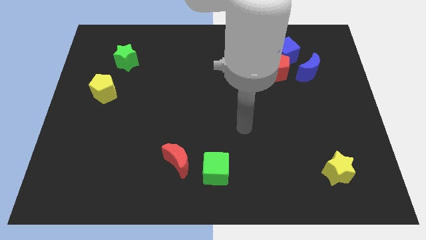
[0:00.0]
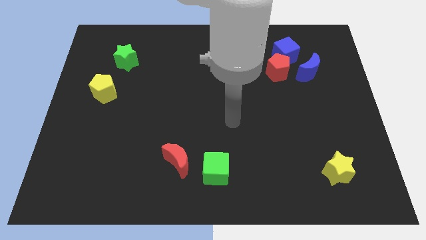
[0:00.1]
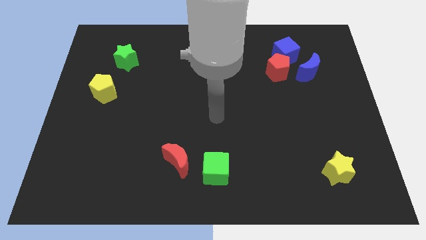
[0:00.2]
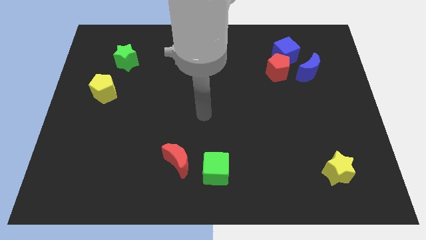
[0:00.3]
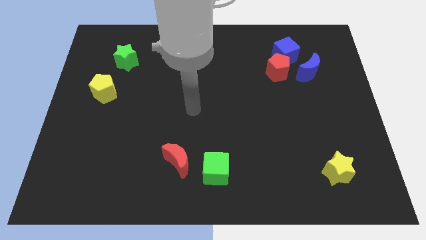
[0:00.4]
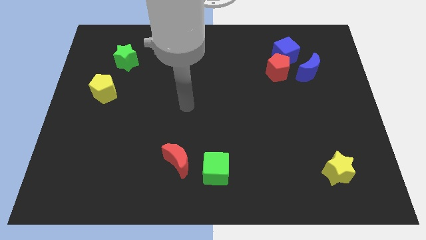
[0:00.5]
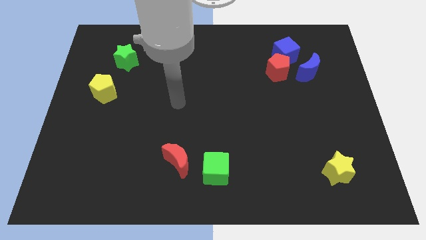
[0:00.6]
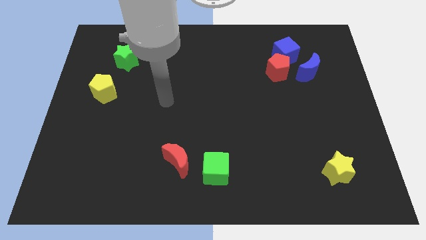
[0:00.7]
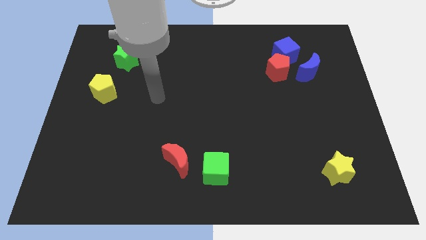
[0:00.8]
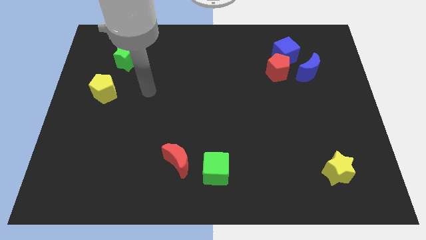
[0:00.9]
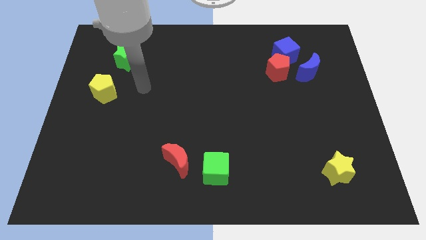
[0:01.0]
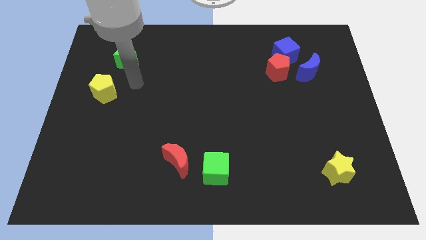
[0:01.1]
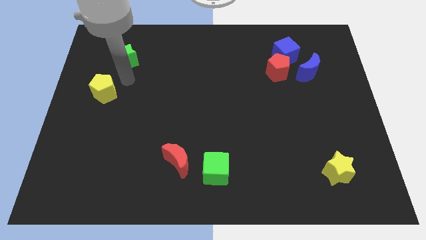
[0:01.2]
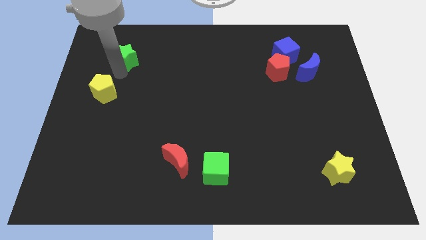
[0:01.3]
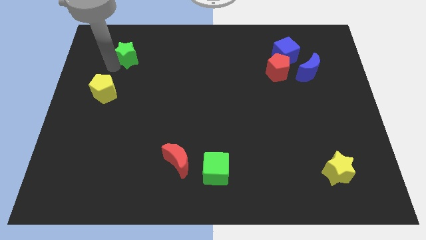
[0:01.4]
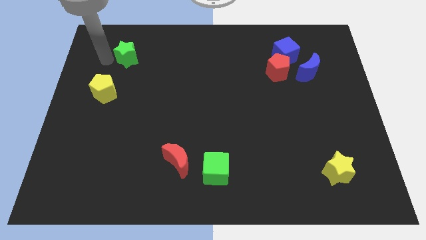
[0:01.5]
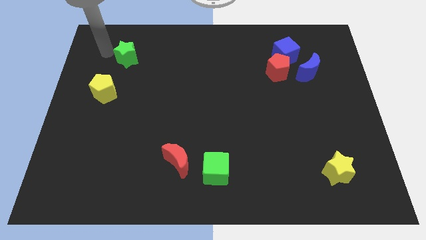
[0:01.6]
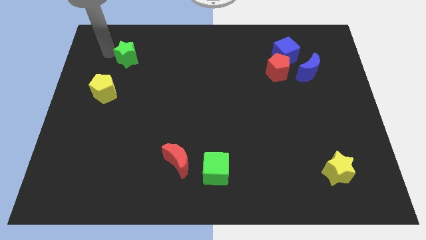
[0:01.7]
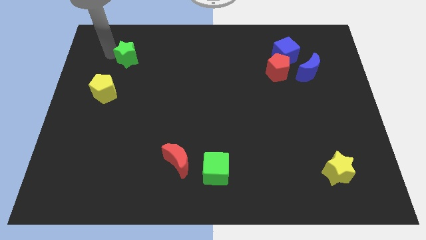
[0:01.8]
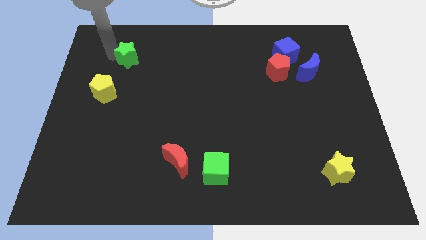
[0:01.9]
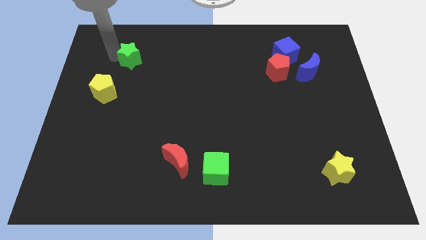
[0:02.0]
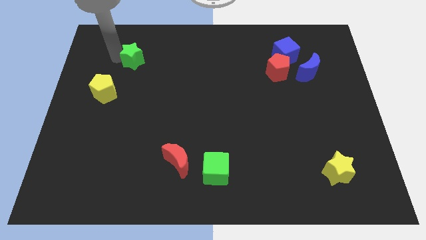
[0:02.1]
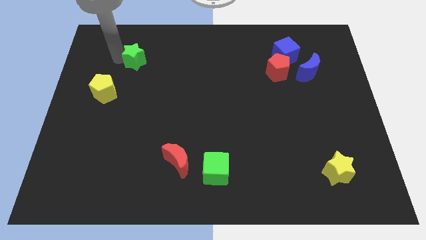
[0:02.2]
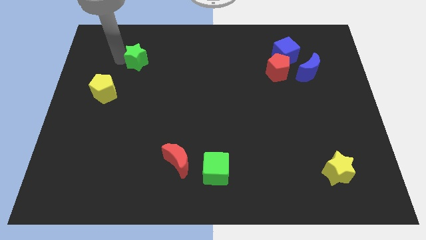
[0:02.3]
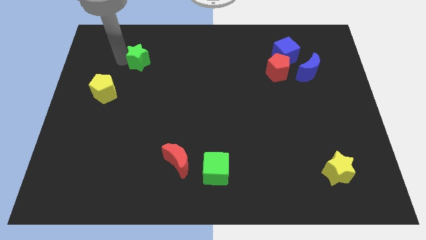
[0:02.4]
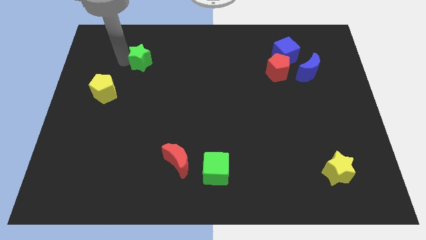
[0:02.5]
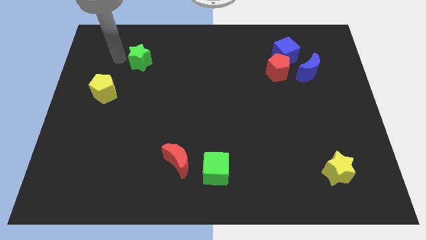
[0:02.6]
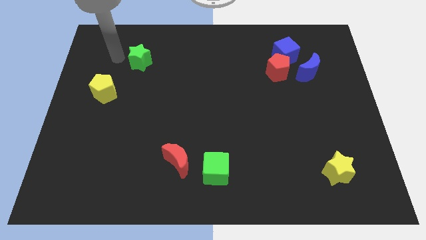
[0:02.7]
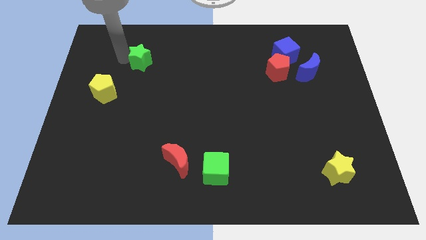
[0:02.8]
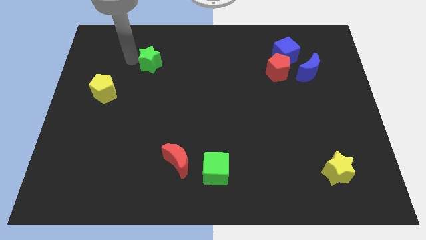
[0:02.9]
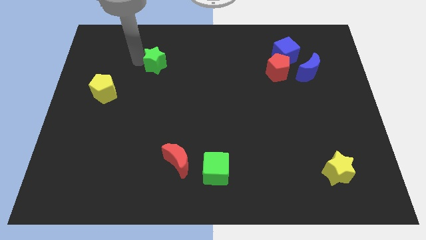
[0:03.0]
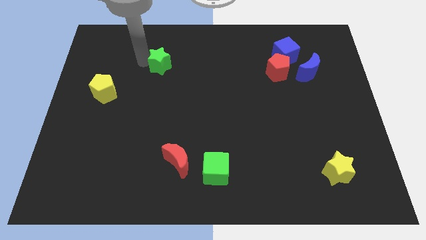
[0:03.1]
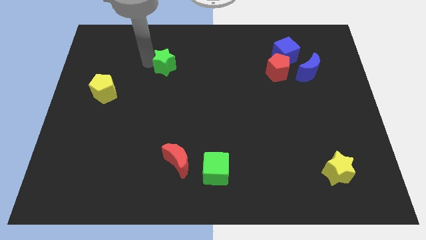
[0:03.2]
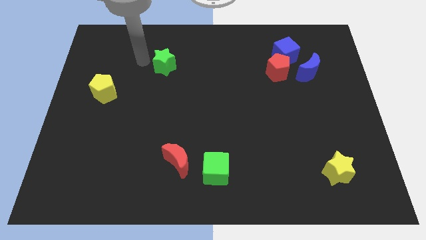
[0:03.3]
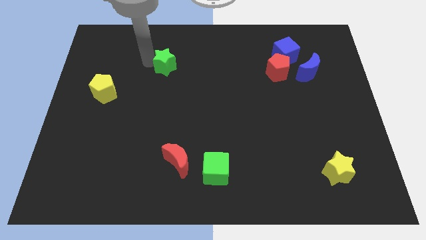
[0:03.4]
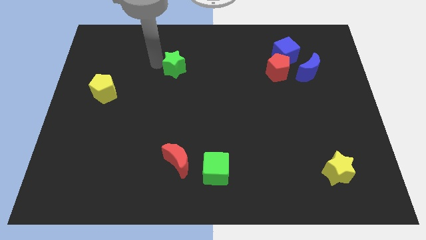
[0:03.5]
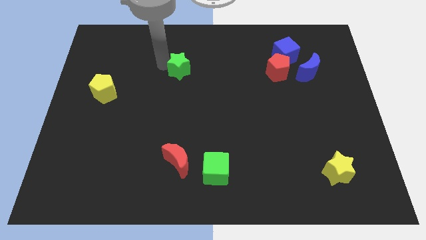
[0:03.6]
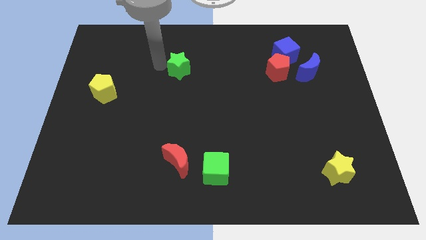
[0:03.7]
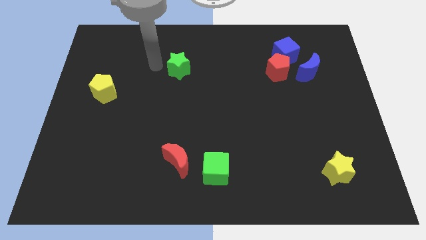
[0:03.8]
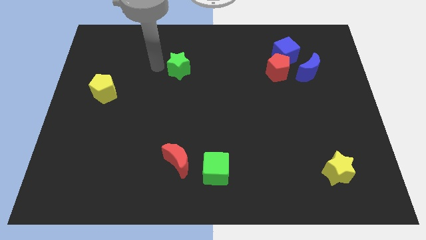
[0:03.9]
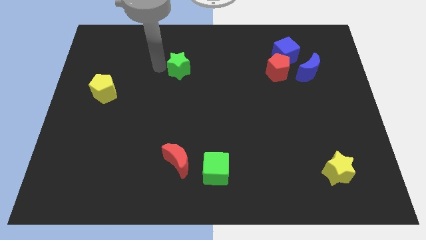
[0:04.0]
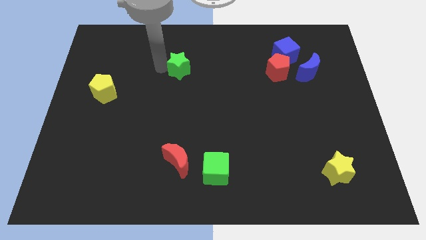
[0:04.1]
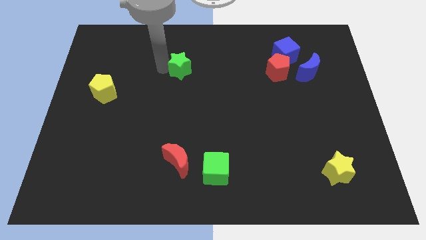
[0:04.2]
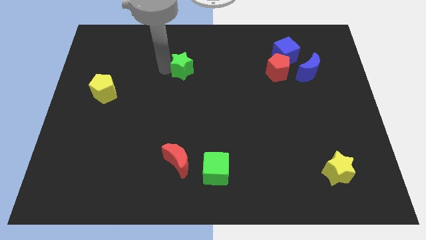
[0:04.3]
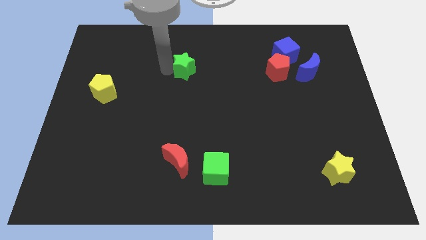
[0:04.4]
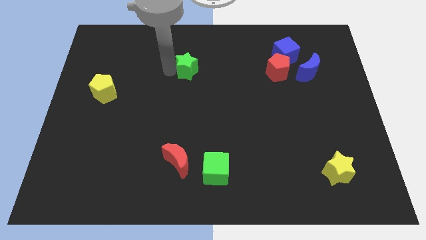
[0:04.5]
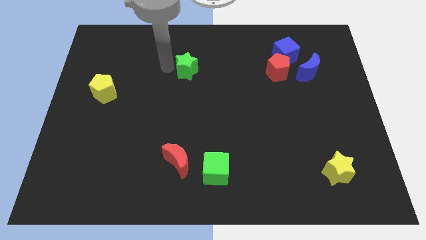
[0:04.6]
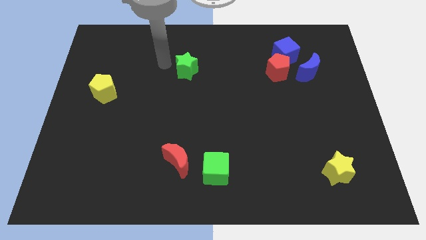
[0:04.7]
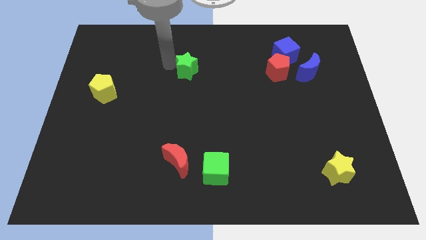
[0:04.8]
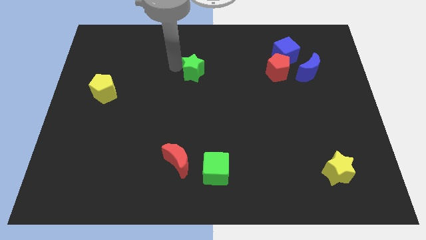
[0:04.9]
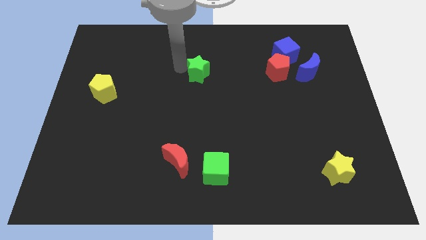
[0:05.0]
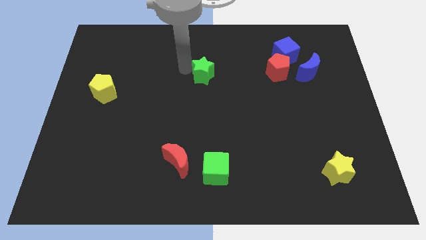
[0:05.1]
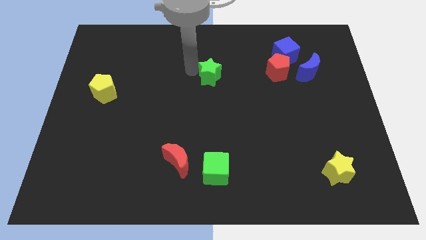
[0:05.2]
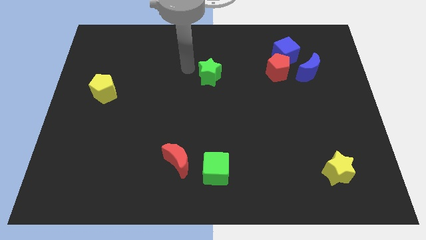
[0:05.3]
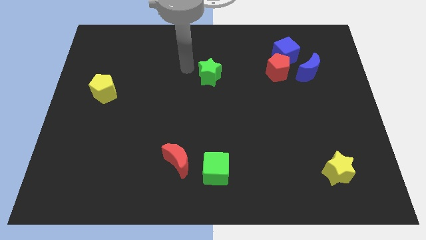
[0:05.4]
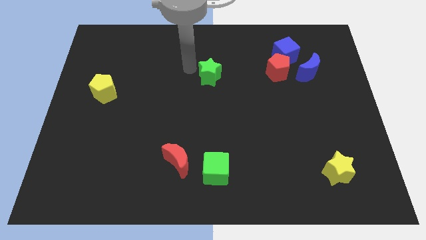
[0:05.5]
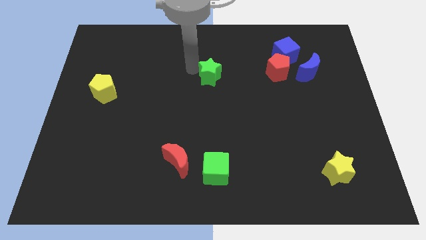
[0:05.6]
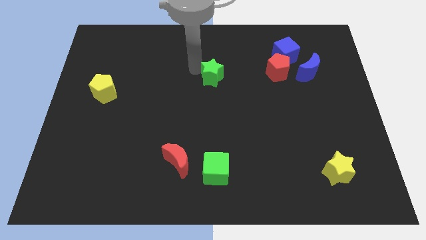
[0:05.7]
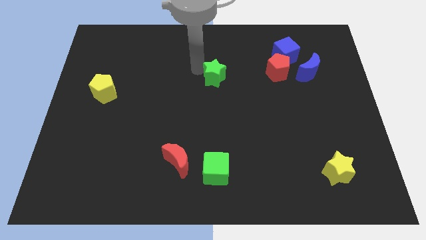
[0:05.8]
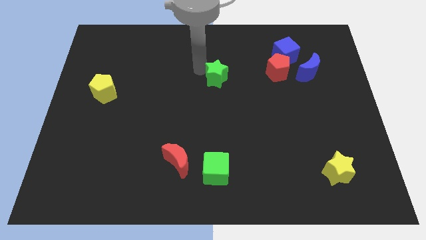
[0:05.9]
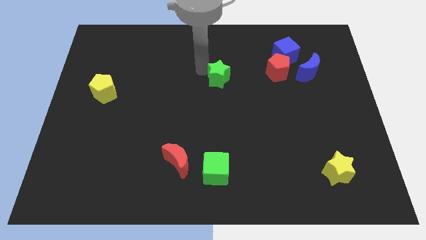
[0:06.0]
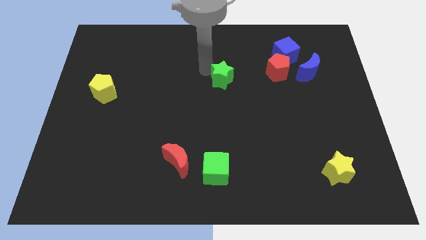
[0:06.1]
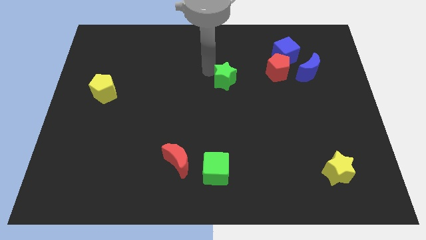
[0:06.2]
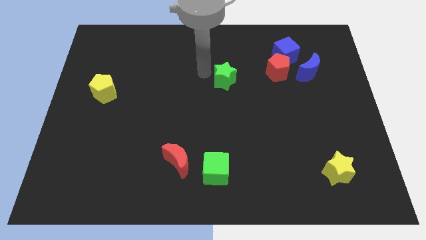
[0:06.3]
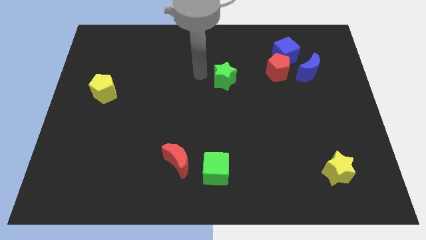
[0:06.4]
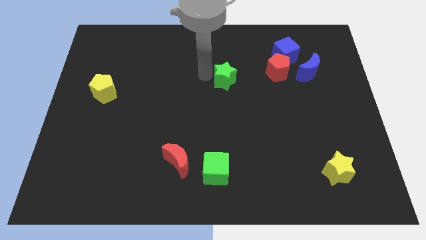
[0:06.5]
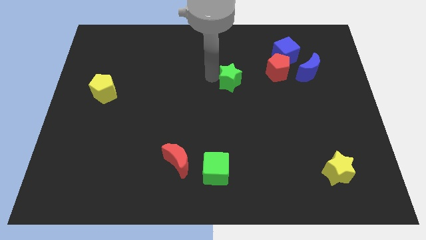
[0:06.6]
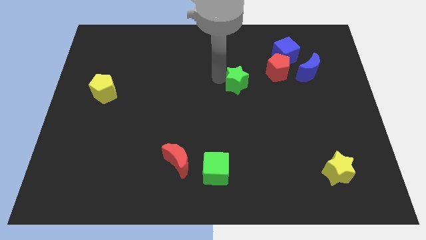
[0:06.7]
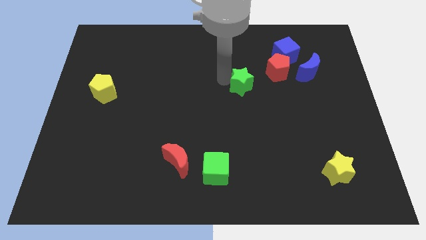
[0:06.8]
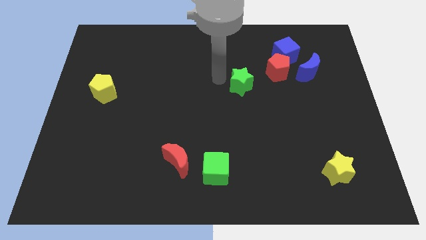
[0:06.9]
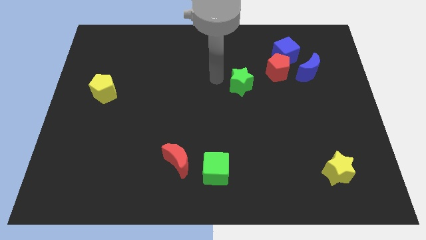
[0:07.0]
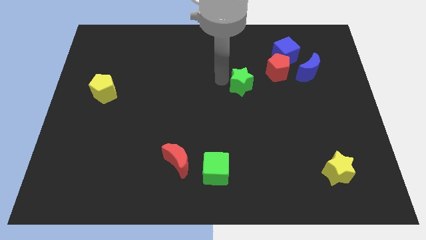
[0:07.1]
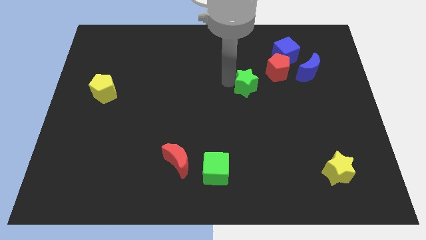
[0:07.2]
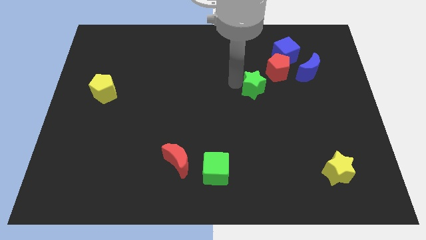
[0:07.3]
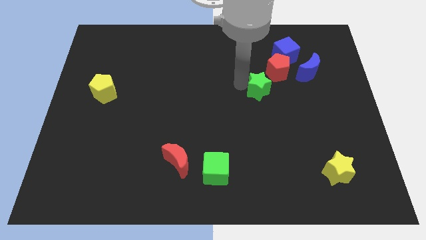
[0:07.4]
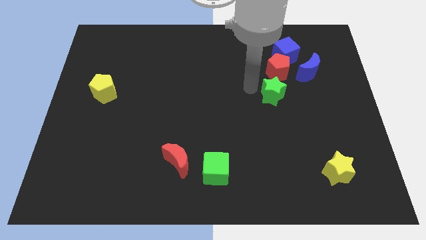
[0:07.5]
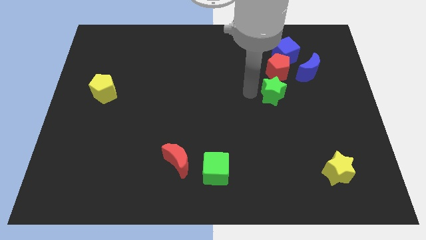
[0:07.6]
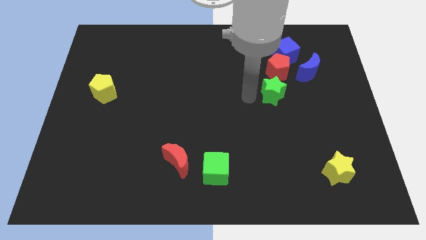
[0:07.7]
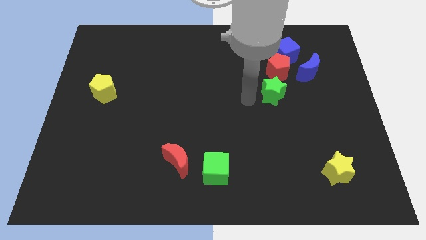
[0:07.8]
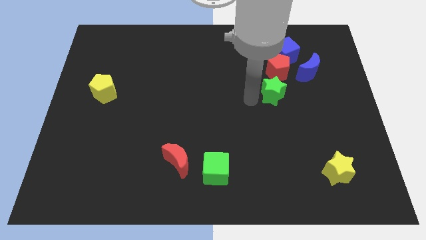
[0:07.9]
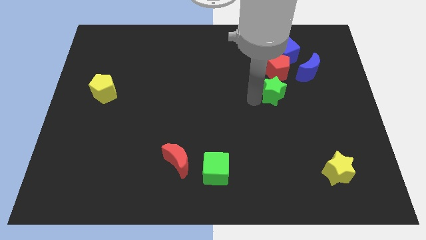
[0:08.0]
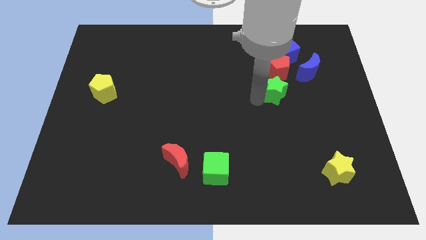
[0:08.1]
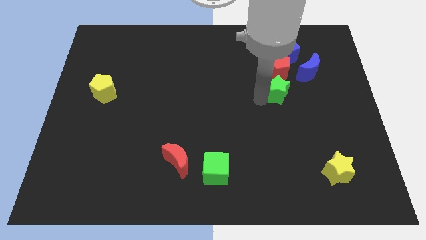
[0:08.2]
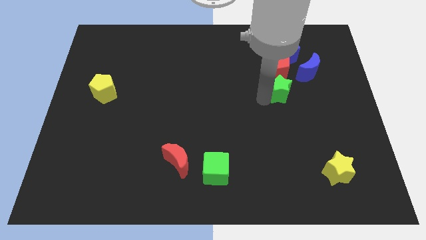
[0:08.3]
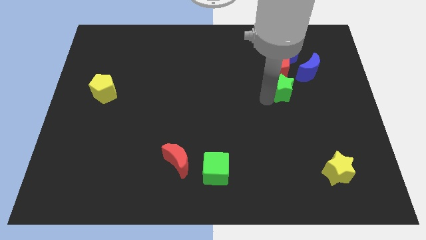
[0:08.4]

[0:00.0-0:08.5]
put the green star to the bottom right of the red pentagon
